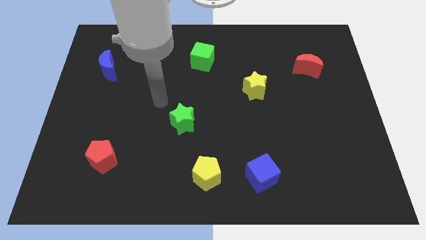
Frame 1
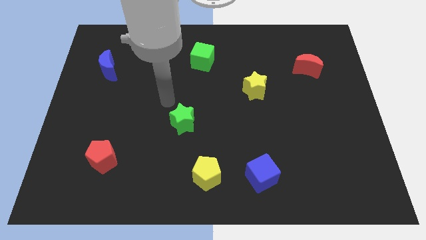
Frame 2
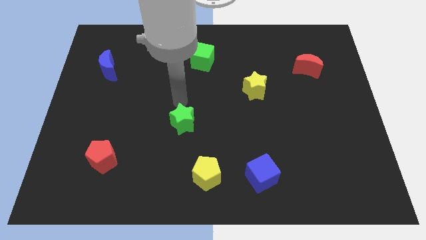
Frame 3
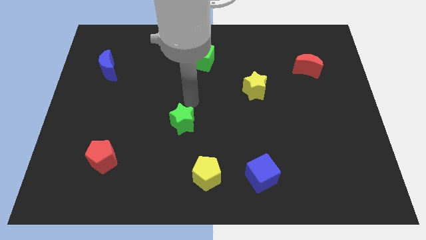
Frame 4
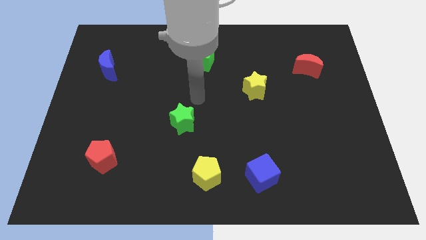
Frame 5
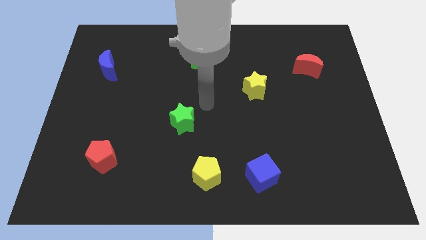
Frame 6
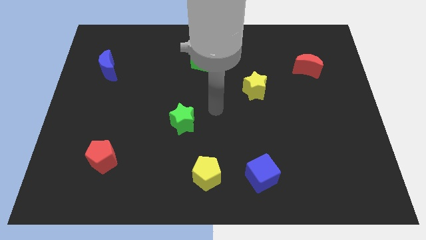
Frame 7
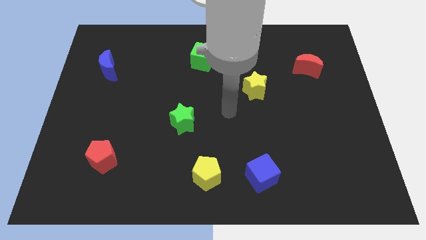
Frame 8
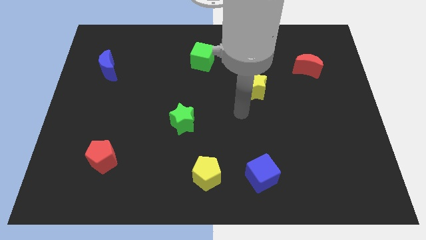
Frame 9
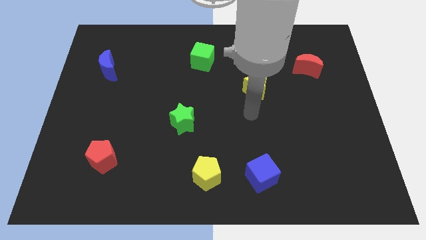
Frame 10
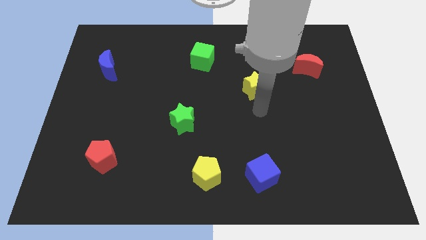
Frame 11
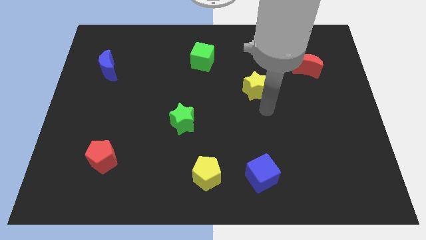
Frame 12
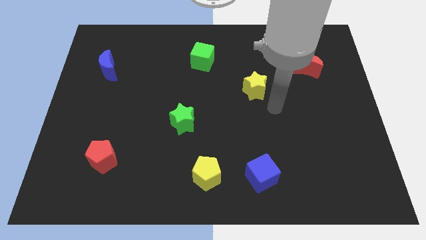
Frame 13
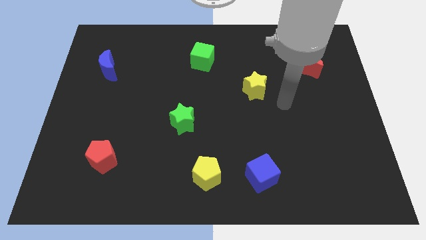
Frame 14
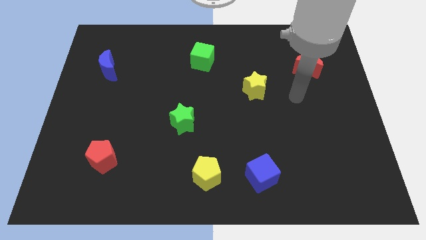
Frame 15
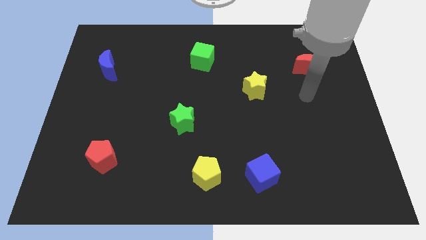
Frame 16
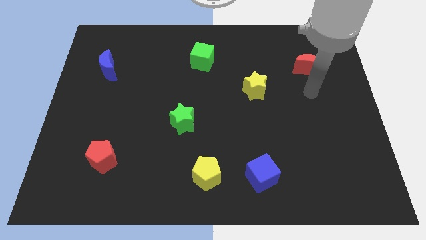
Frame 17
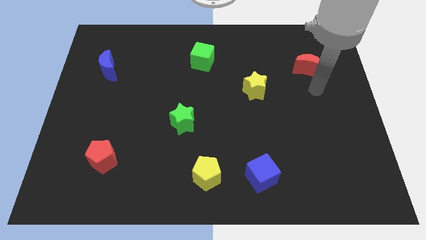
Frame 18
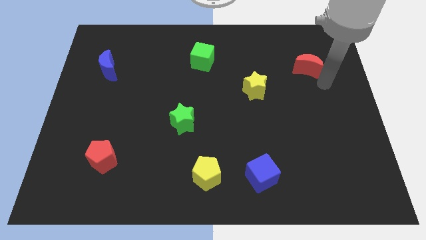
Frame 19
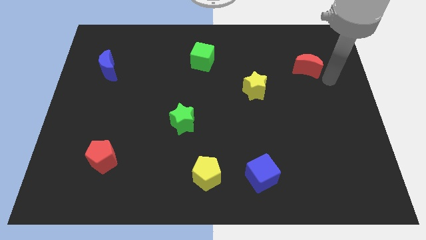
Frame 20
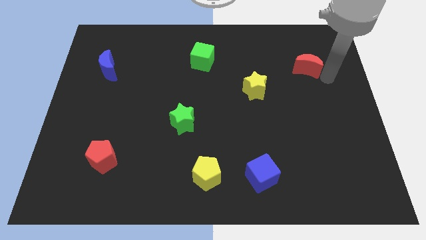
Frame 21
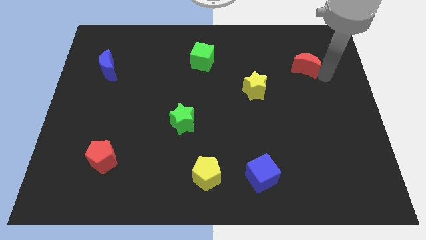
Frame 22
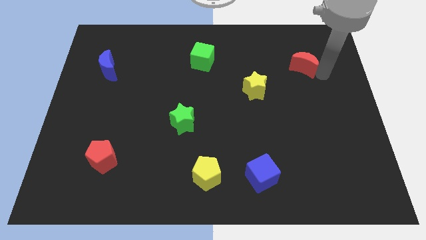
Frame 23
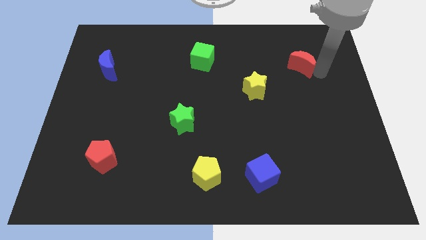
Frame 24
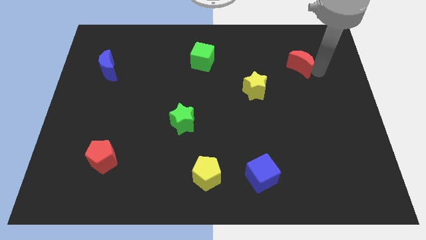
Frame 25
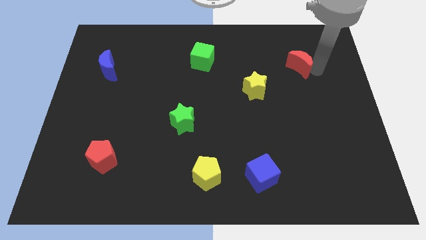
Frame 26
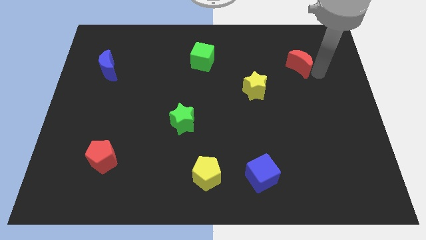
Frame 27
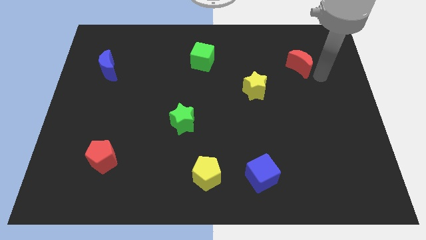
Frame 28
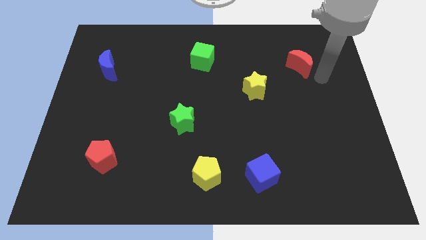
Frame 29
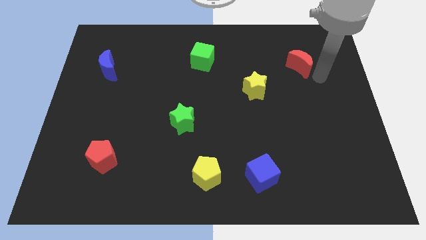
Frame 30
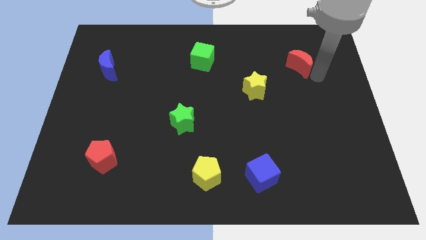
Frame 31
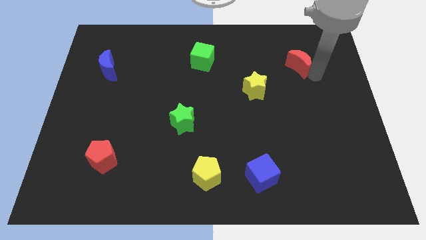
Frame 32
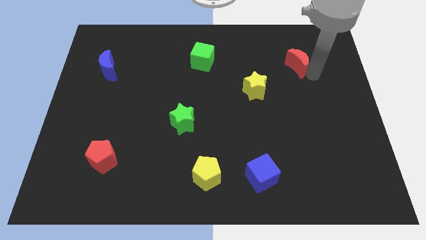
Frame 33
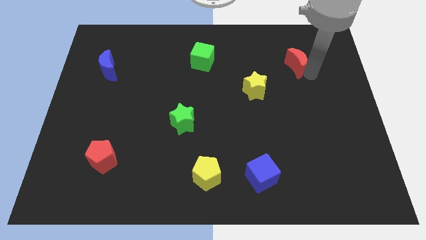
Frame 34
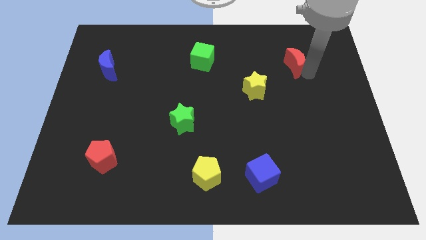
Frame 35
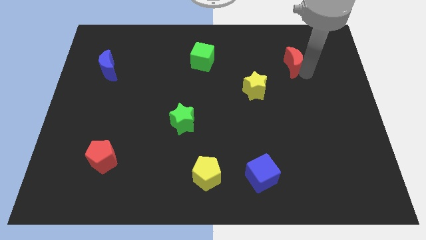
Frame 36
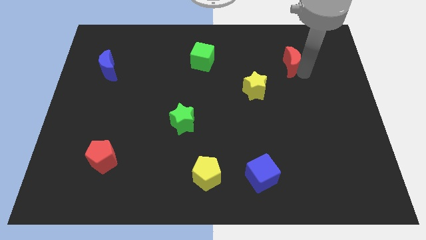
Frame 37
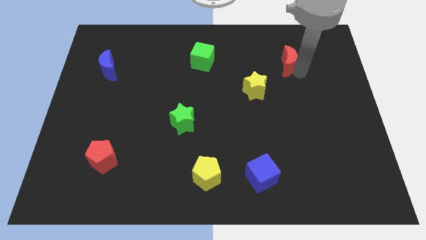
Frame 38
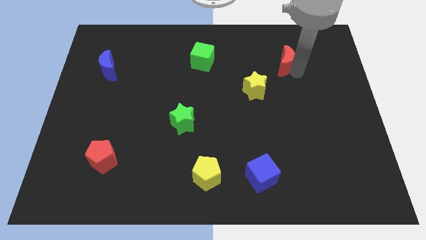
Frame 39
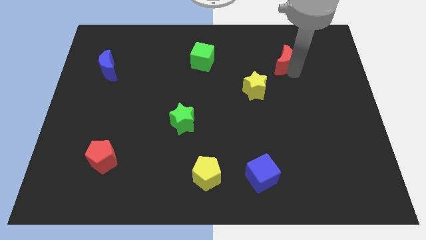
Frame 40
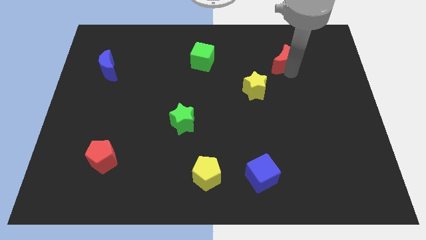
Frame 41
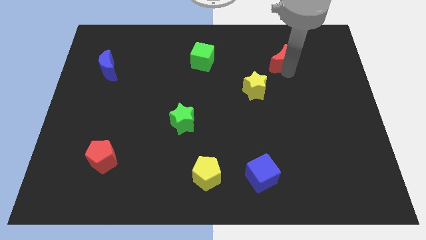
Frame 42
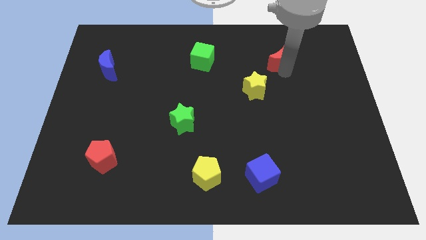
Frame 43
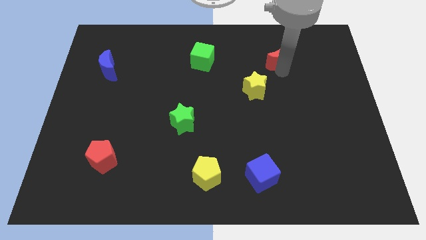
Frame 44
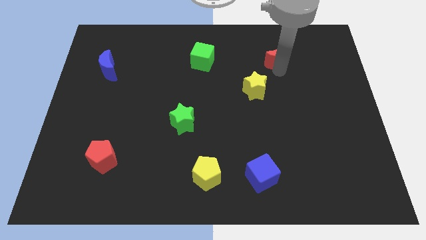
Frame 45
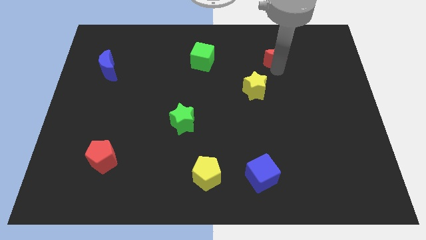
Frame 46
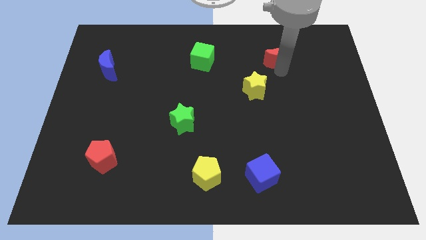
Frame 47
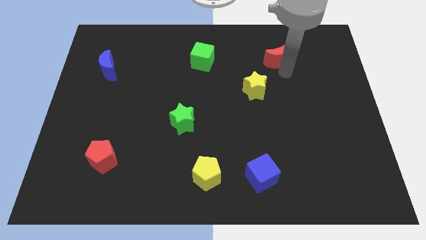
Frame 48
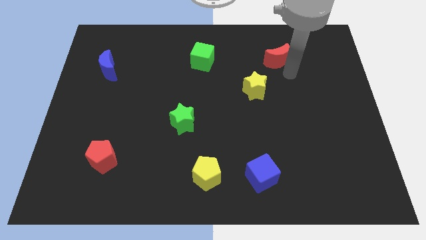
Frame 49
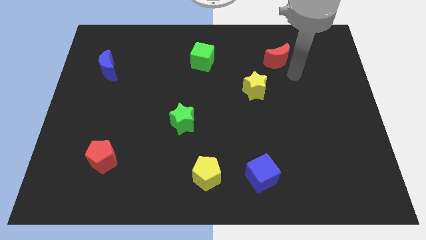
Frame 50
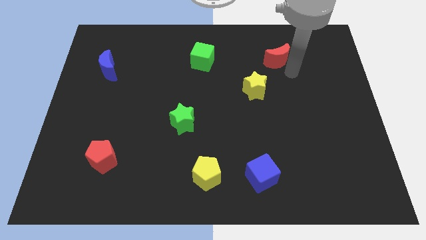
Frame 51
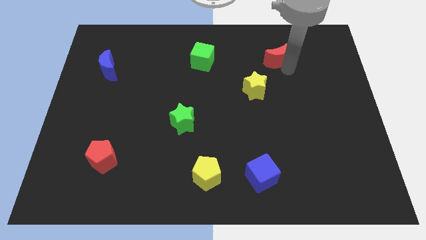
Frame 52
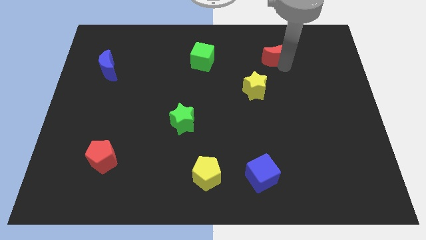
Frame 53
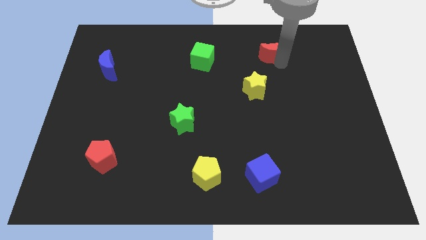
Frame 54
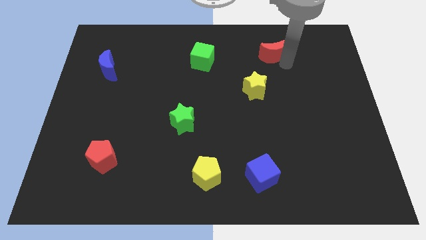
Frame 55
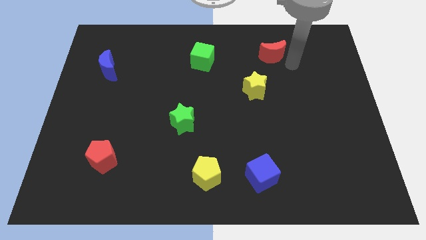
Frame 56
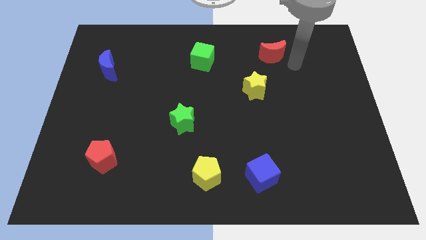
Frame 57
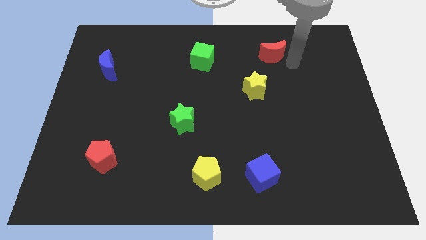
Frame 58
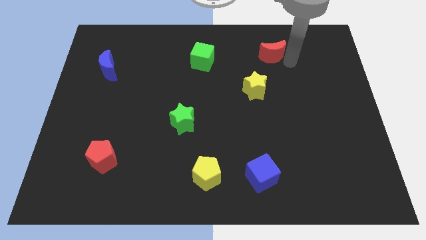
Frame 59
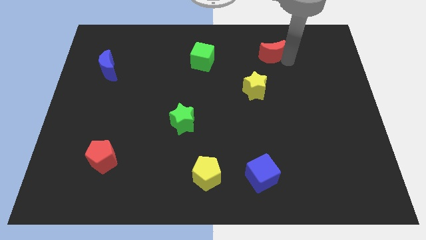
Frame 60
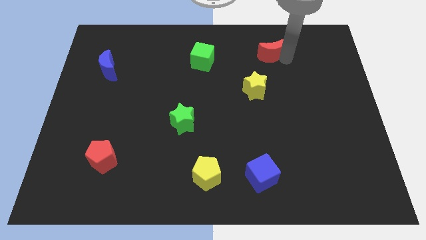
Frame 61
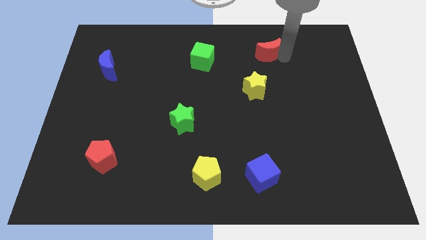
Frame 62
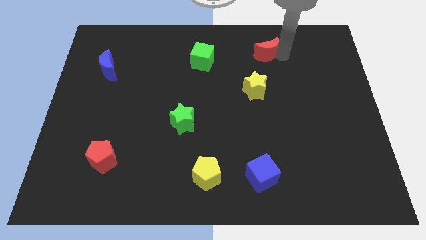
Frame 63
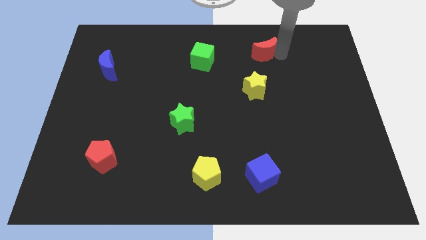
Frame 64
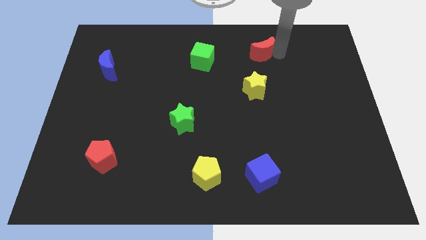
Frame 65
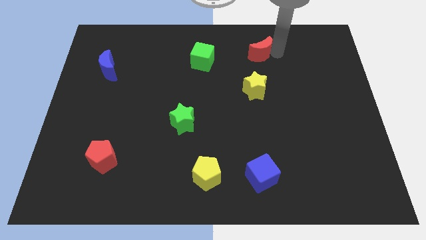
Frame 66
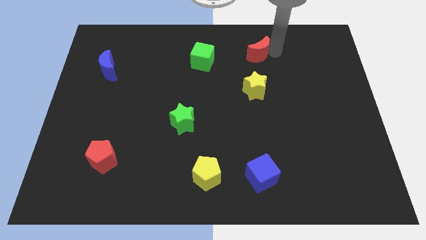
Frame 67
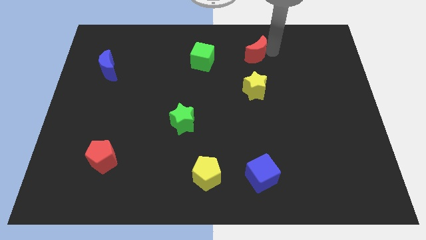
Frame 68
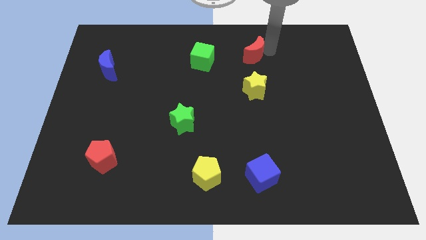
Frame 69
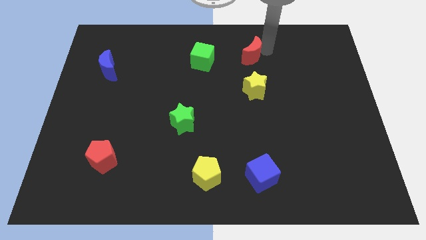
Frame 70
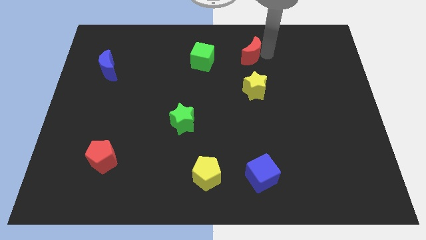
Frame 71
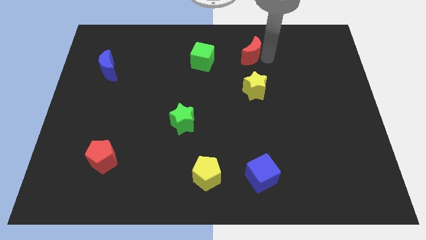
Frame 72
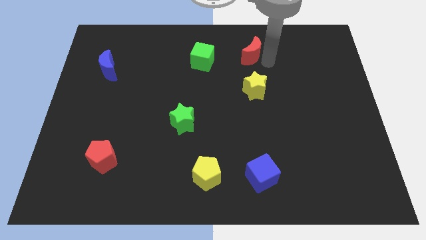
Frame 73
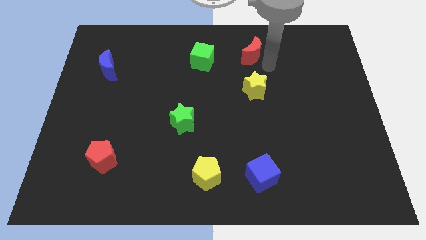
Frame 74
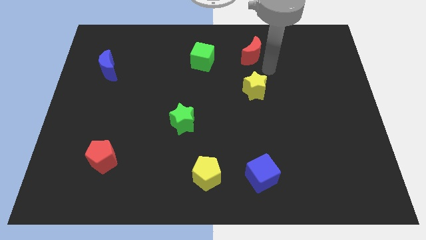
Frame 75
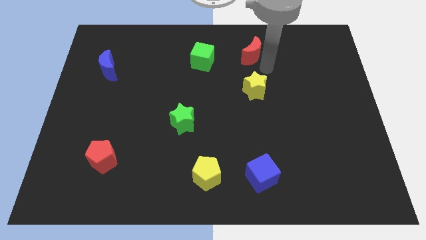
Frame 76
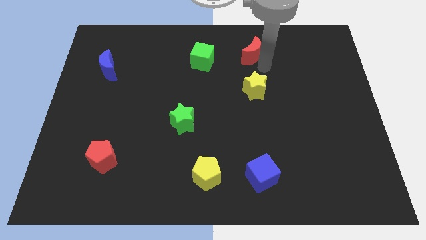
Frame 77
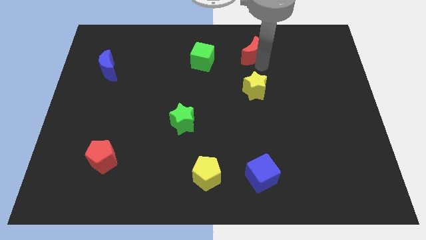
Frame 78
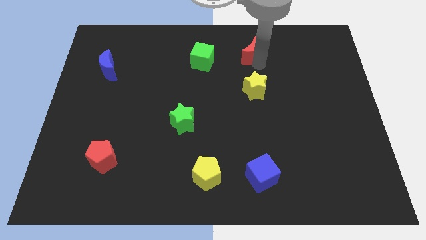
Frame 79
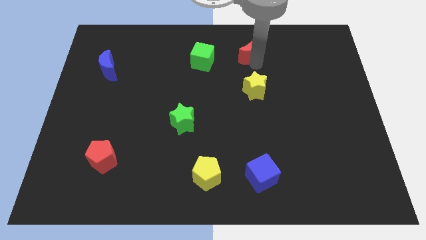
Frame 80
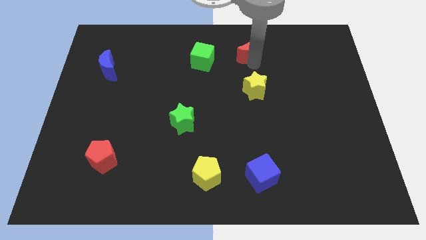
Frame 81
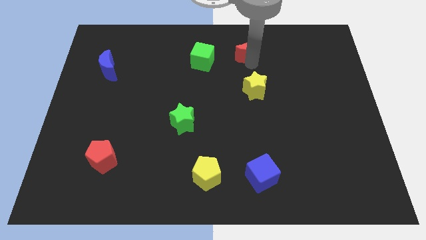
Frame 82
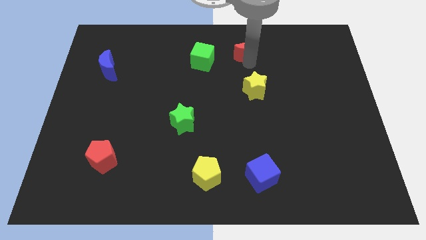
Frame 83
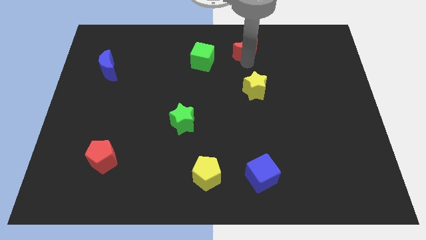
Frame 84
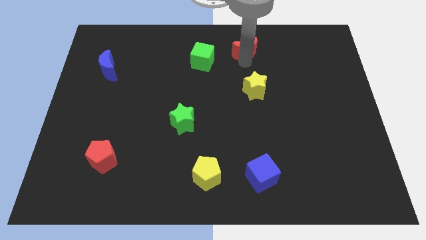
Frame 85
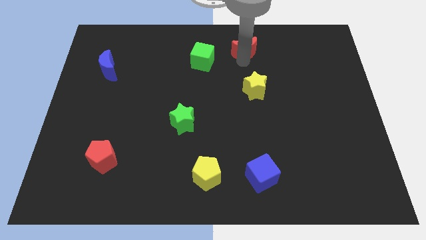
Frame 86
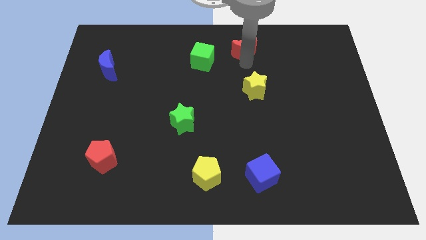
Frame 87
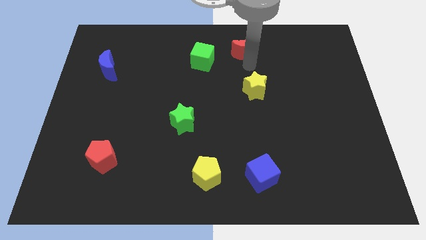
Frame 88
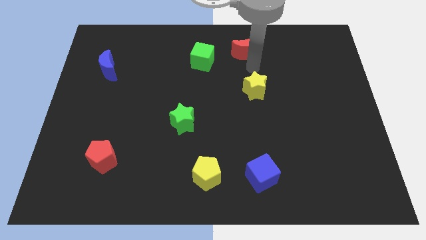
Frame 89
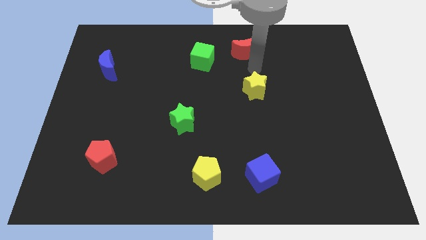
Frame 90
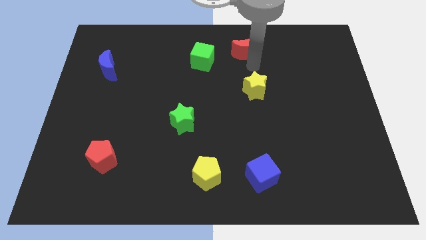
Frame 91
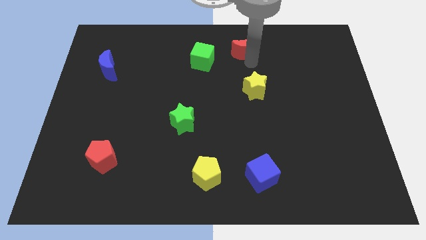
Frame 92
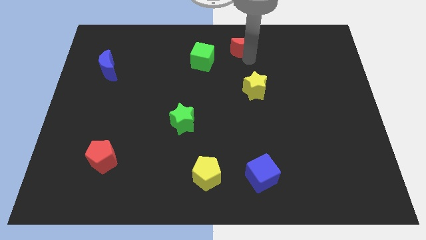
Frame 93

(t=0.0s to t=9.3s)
slide the red moon to the top side
